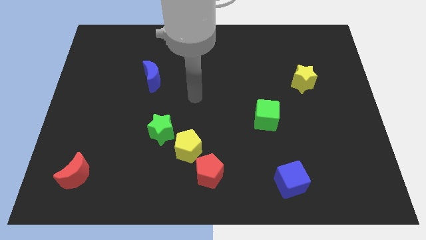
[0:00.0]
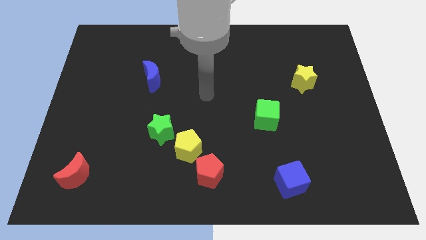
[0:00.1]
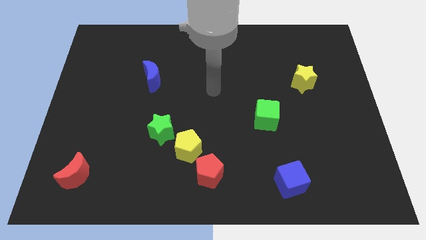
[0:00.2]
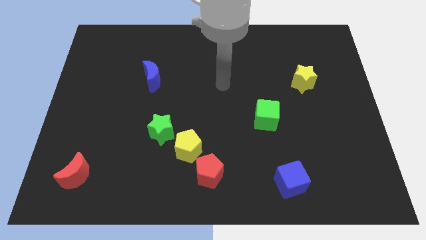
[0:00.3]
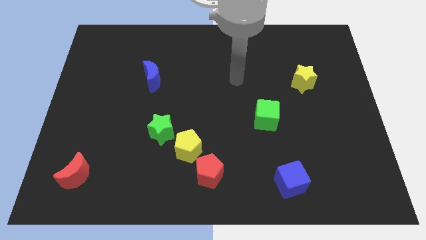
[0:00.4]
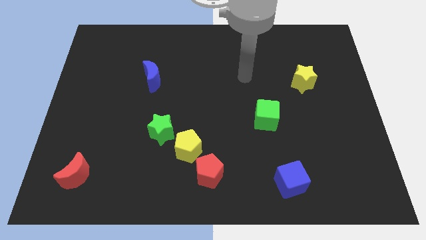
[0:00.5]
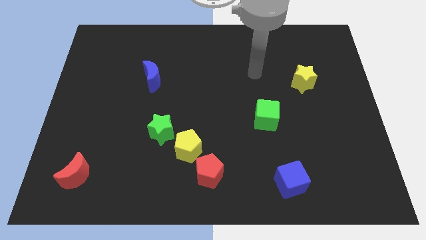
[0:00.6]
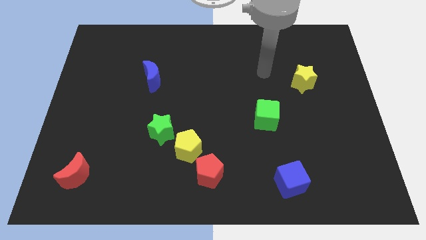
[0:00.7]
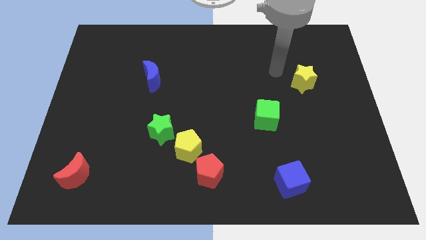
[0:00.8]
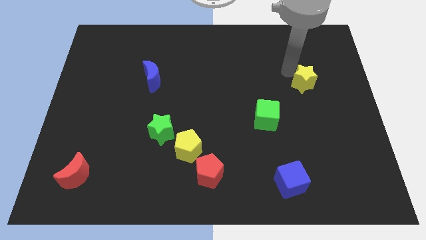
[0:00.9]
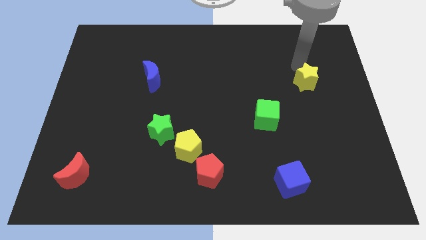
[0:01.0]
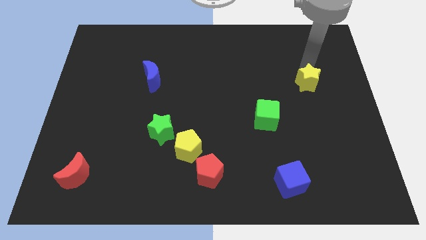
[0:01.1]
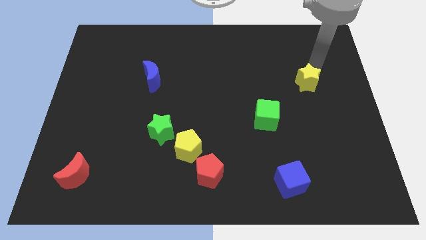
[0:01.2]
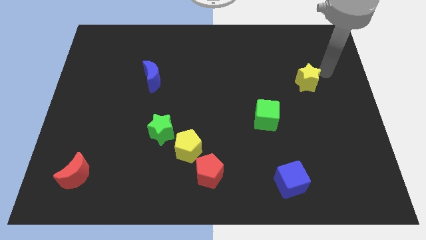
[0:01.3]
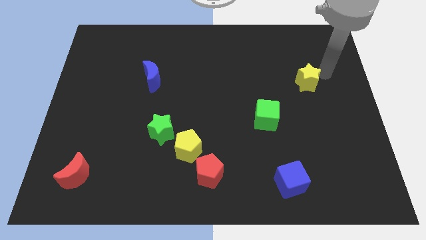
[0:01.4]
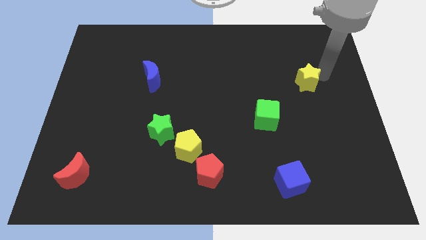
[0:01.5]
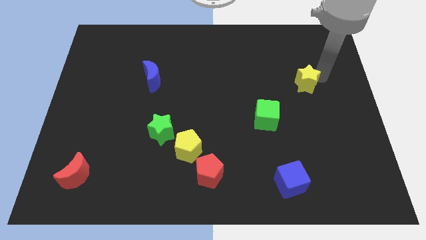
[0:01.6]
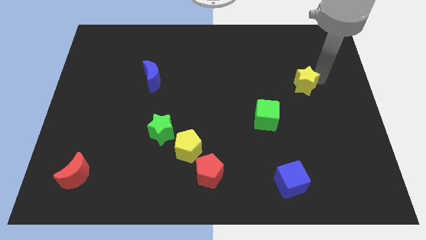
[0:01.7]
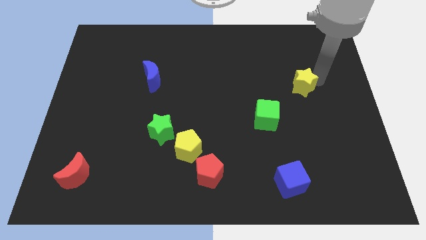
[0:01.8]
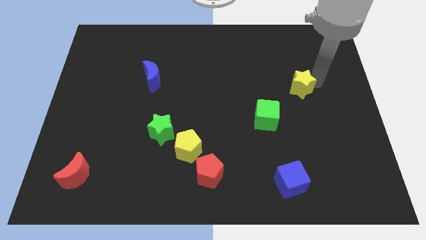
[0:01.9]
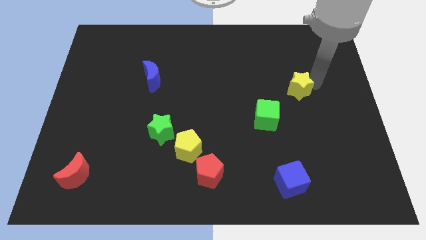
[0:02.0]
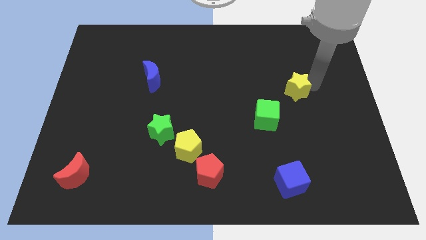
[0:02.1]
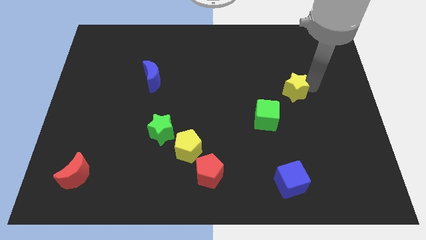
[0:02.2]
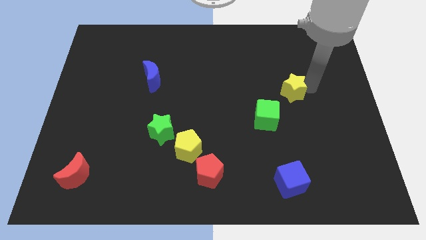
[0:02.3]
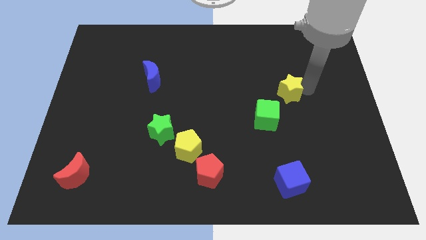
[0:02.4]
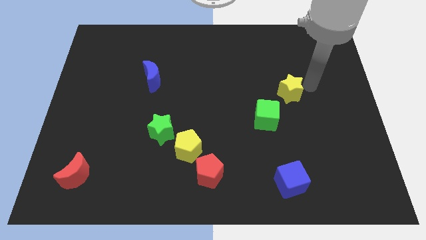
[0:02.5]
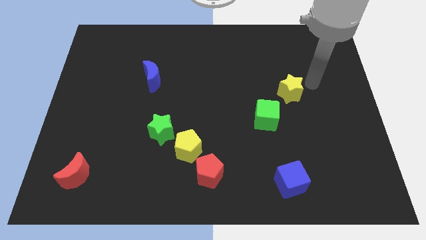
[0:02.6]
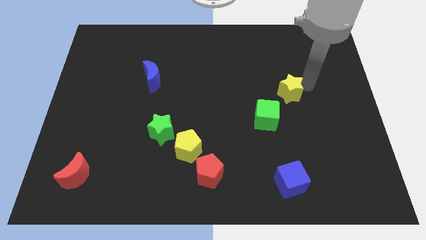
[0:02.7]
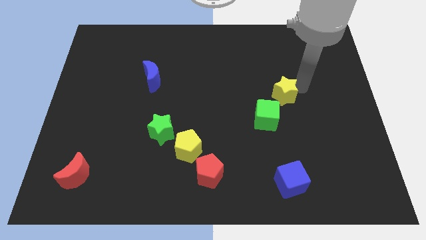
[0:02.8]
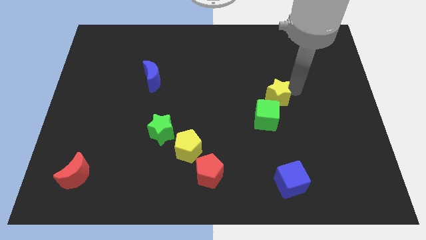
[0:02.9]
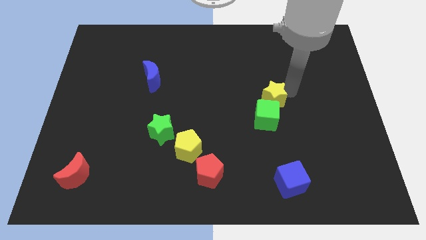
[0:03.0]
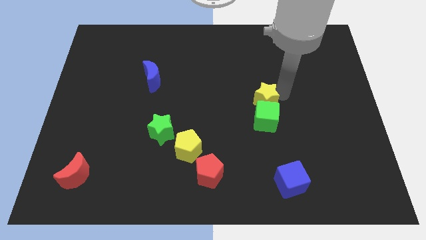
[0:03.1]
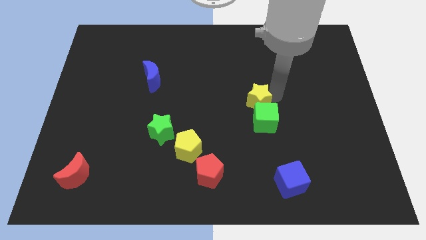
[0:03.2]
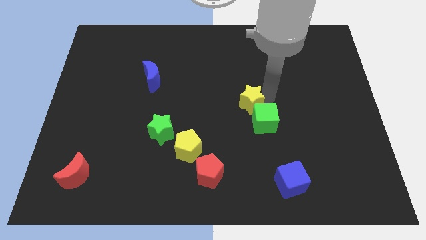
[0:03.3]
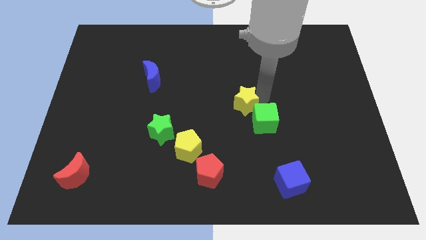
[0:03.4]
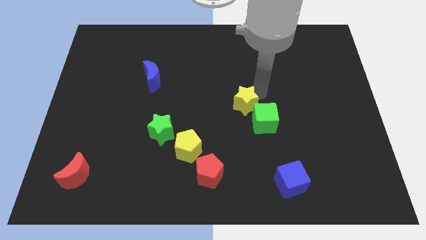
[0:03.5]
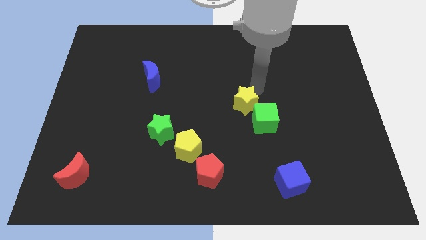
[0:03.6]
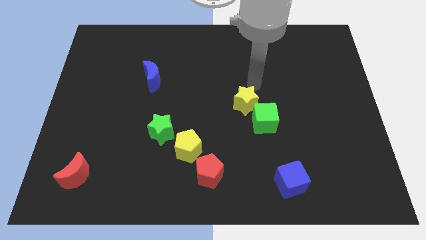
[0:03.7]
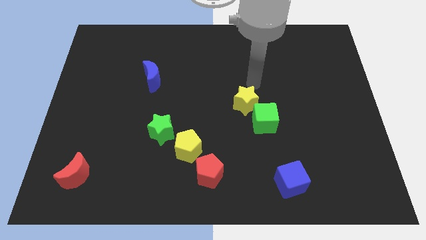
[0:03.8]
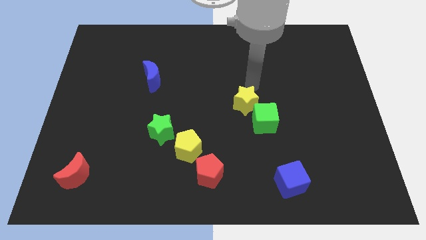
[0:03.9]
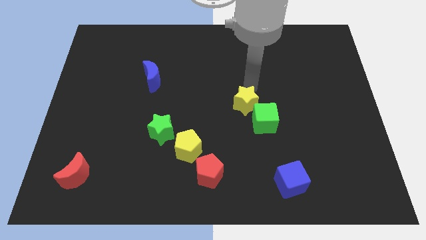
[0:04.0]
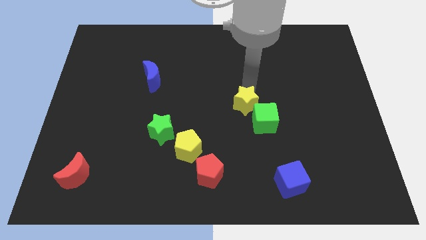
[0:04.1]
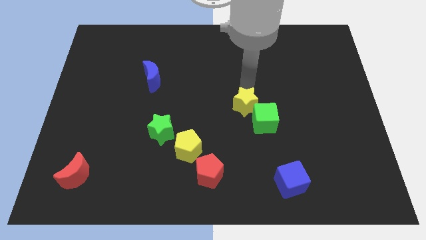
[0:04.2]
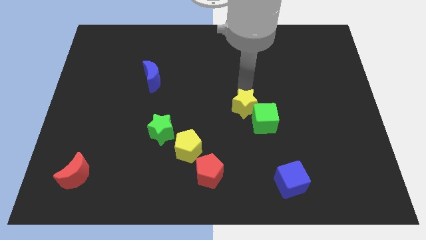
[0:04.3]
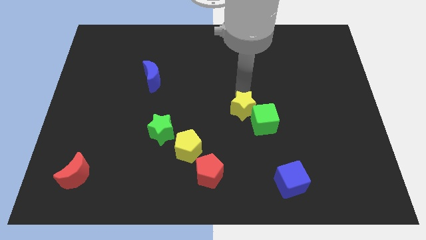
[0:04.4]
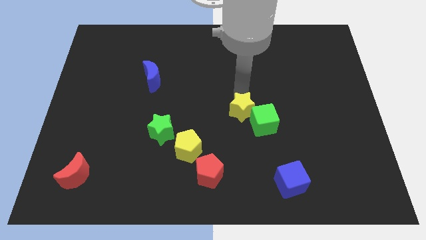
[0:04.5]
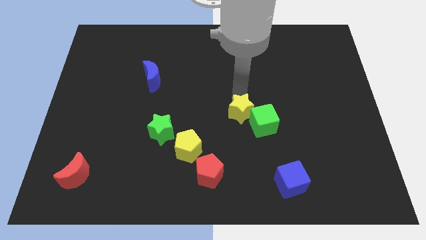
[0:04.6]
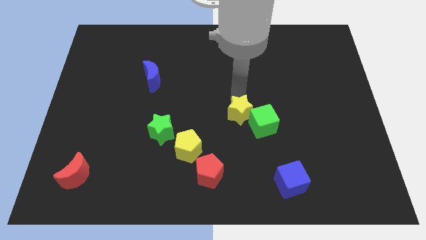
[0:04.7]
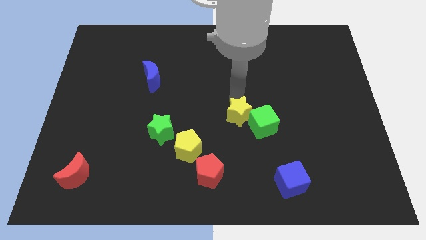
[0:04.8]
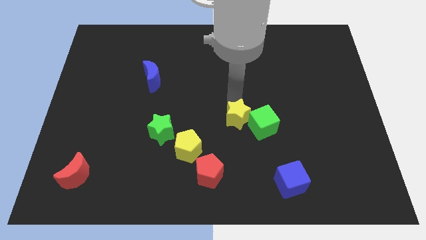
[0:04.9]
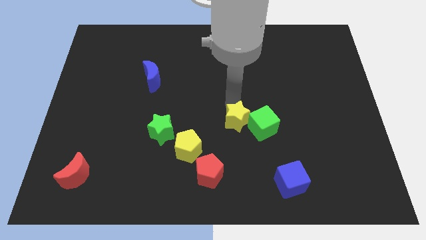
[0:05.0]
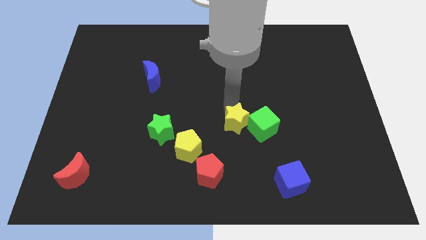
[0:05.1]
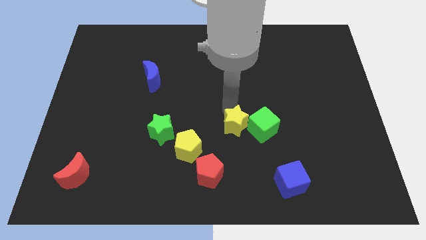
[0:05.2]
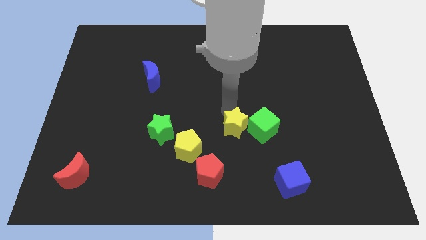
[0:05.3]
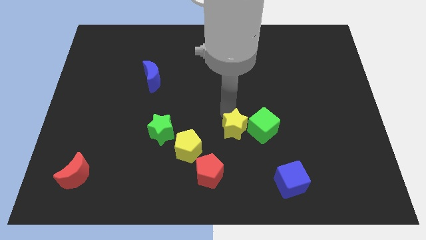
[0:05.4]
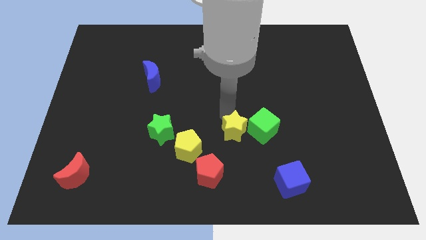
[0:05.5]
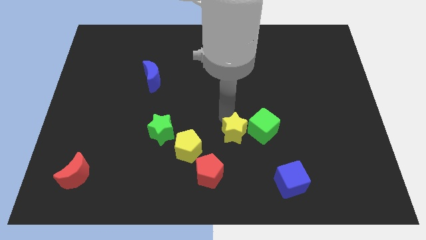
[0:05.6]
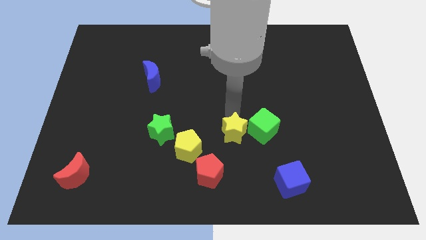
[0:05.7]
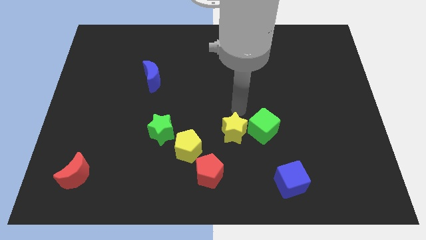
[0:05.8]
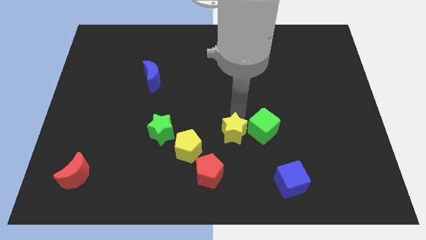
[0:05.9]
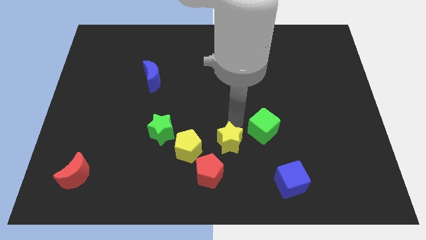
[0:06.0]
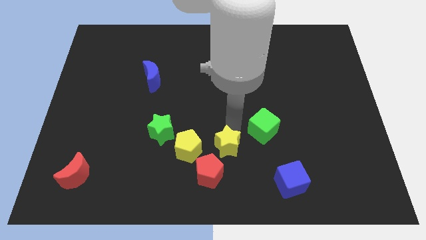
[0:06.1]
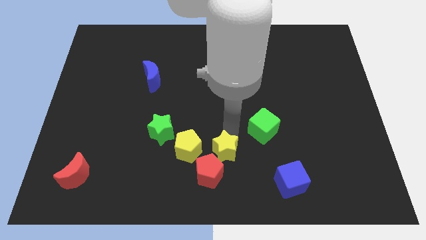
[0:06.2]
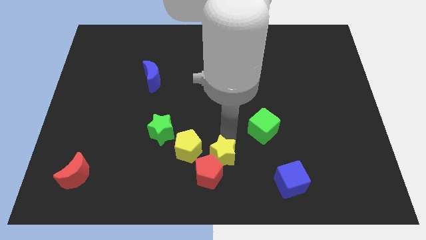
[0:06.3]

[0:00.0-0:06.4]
put the yellow star towards the red pentagon
